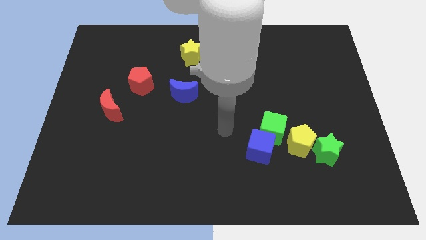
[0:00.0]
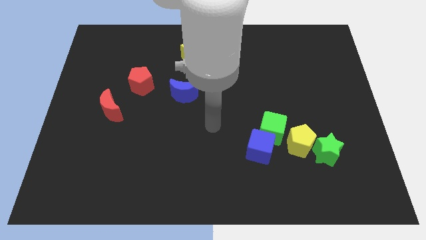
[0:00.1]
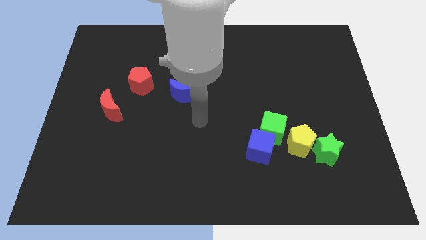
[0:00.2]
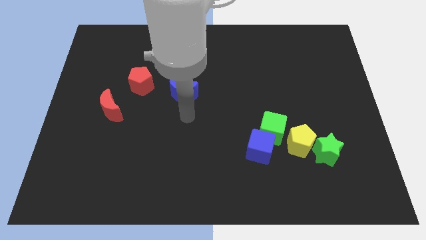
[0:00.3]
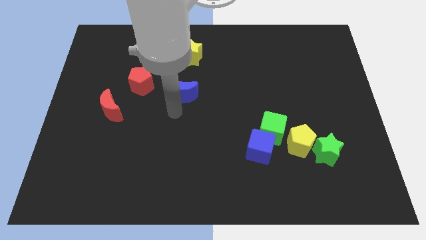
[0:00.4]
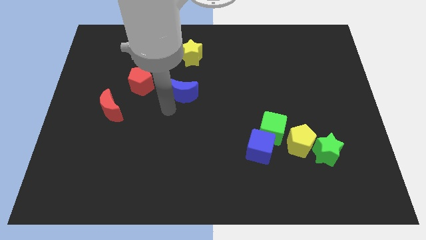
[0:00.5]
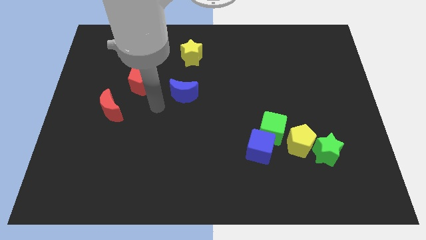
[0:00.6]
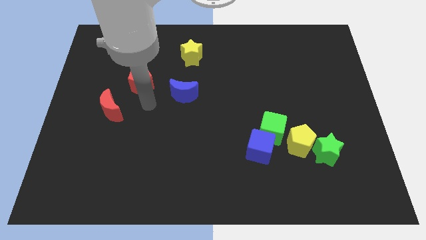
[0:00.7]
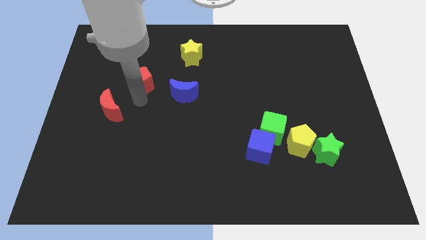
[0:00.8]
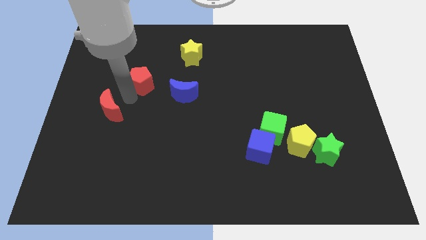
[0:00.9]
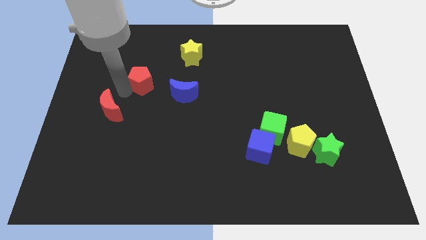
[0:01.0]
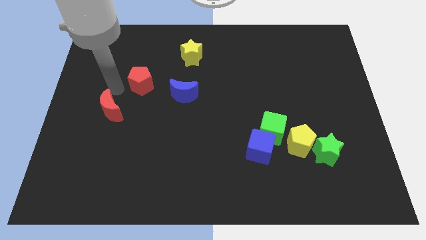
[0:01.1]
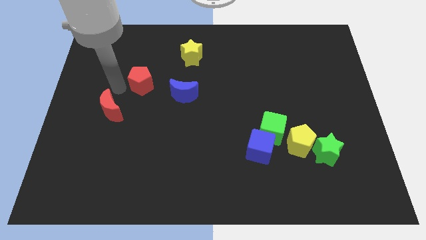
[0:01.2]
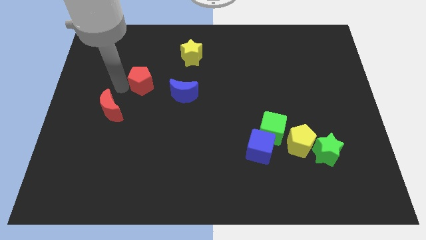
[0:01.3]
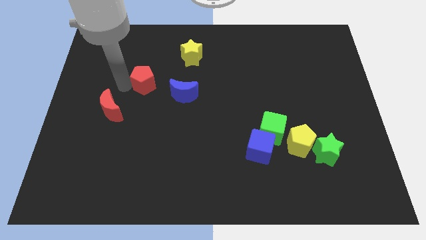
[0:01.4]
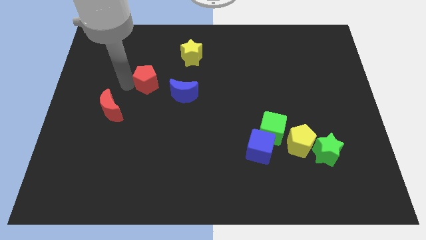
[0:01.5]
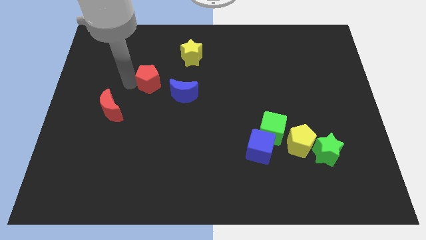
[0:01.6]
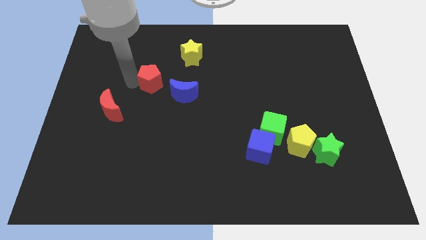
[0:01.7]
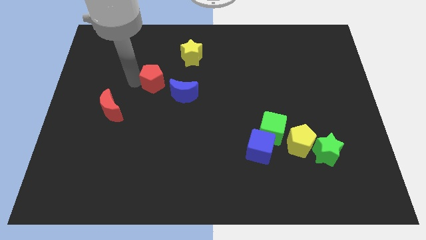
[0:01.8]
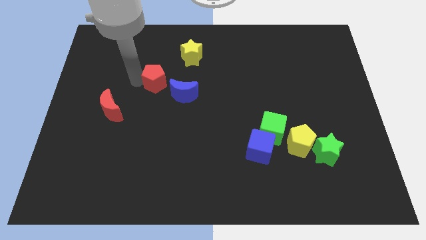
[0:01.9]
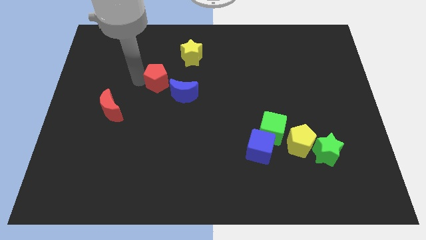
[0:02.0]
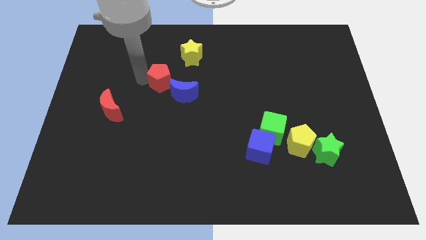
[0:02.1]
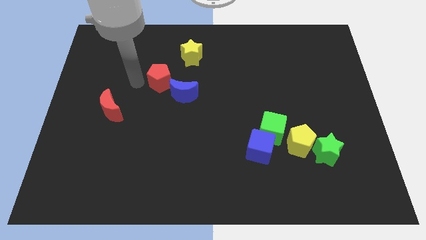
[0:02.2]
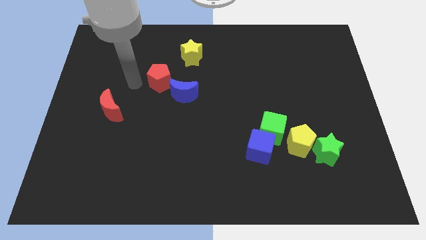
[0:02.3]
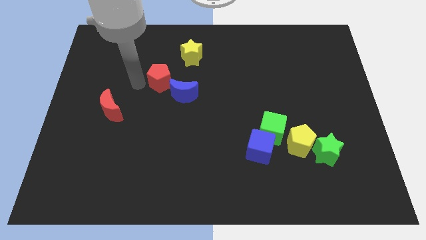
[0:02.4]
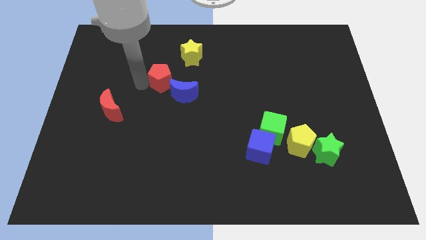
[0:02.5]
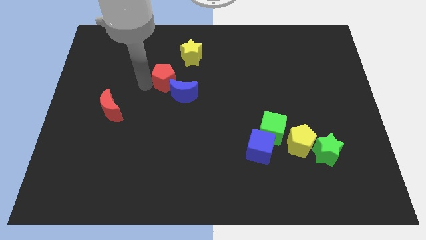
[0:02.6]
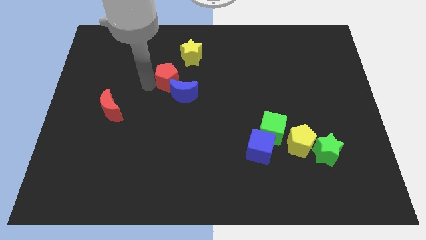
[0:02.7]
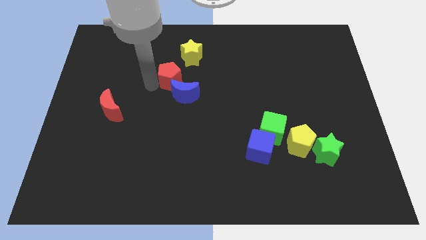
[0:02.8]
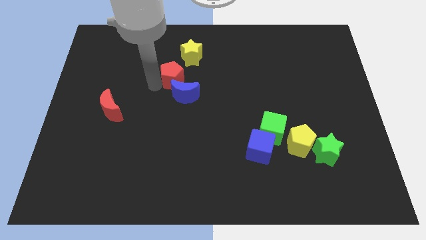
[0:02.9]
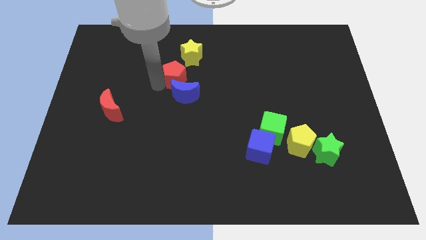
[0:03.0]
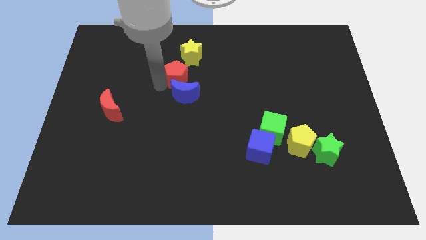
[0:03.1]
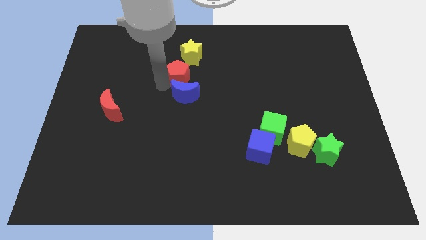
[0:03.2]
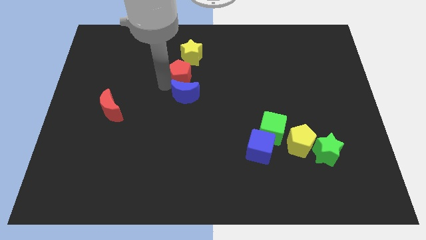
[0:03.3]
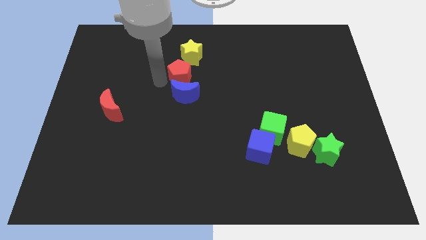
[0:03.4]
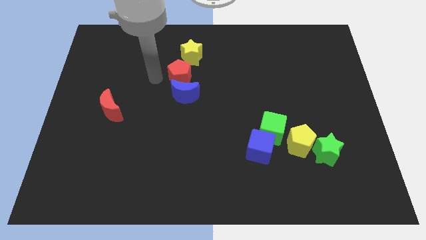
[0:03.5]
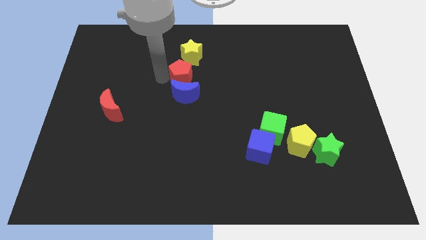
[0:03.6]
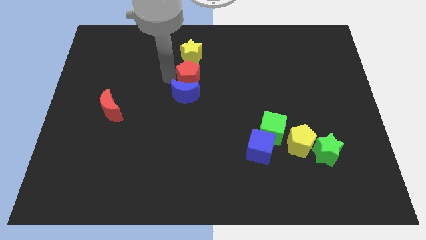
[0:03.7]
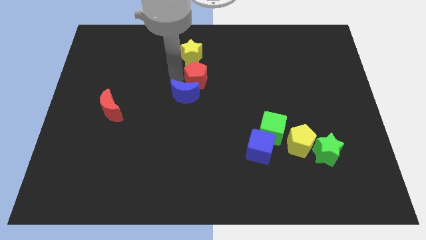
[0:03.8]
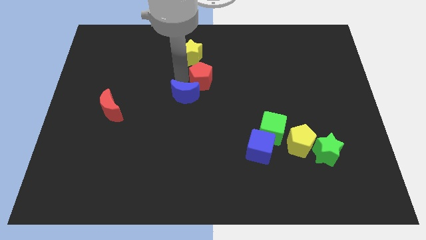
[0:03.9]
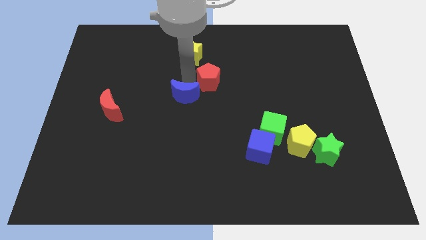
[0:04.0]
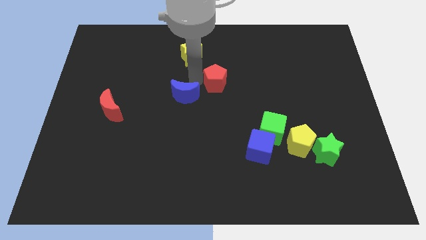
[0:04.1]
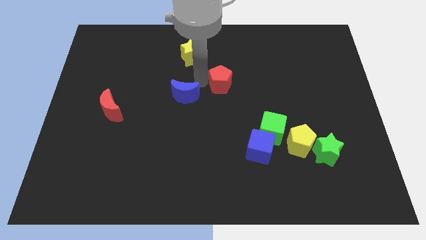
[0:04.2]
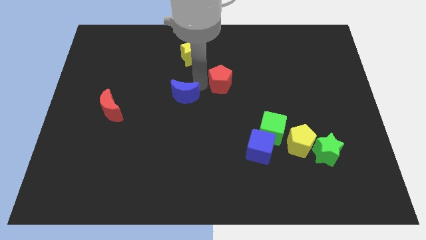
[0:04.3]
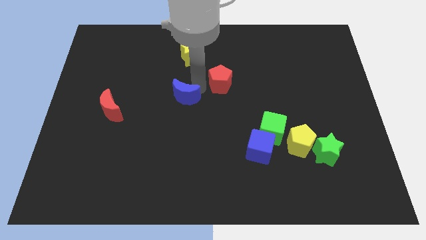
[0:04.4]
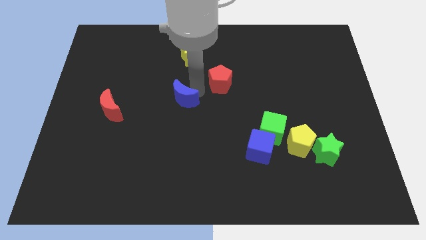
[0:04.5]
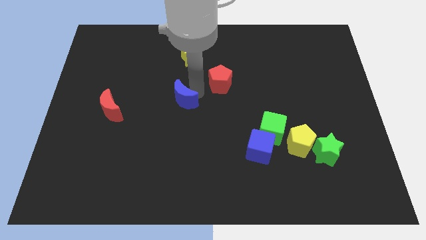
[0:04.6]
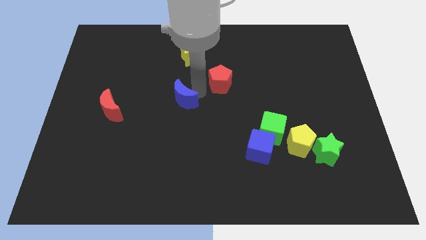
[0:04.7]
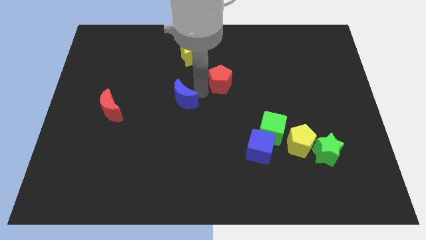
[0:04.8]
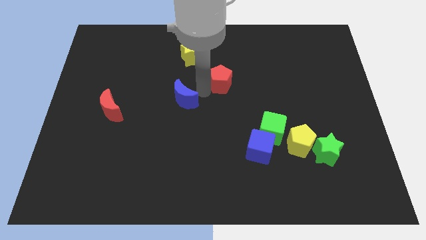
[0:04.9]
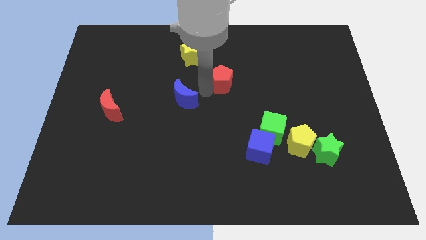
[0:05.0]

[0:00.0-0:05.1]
move the red pentagon right

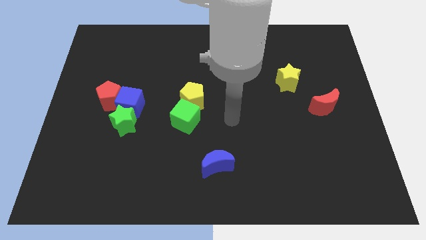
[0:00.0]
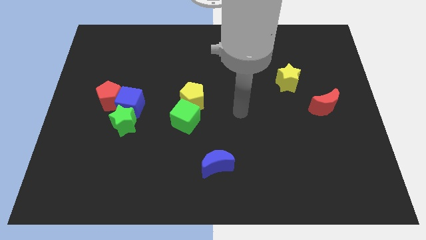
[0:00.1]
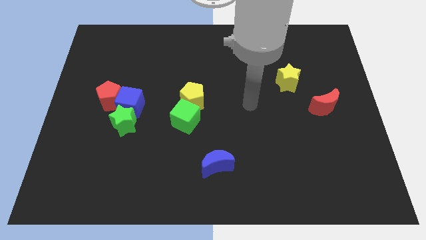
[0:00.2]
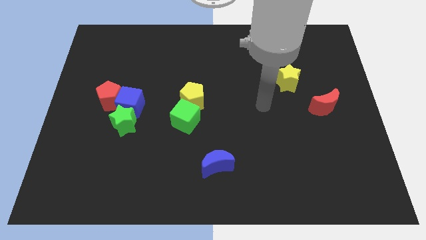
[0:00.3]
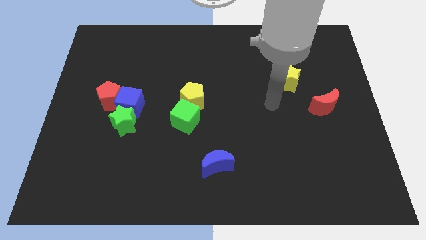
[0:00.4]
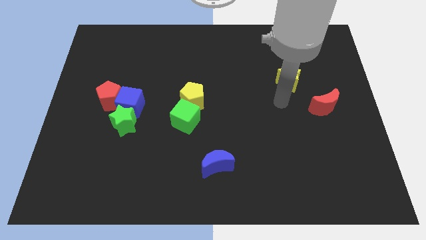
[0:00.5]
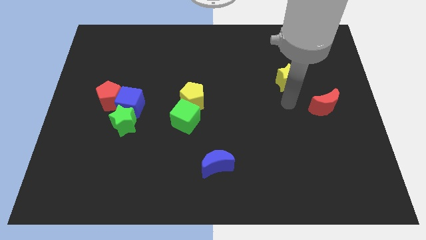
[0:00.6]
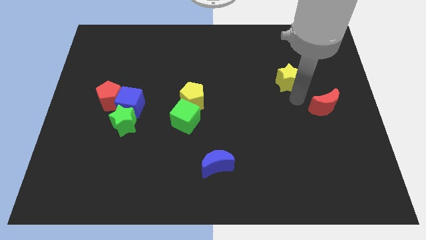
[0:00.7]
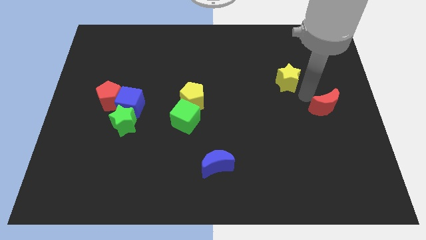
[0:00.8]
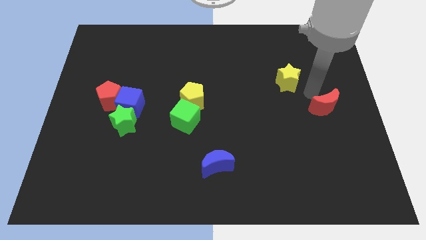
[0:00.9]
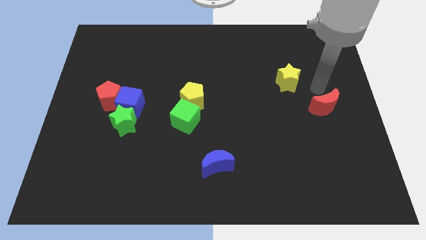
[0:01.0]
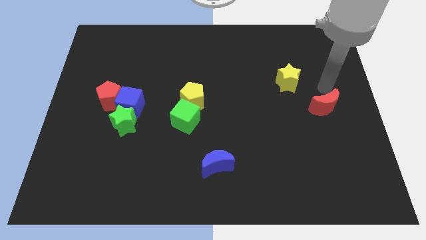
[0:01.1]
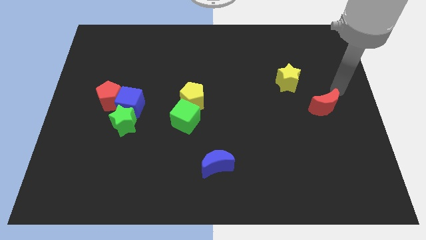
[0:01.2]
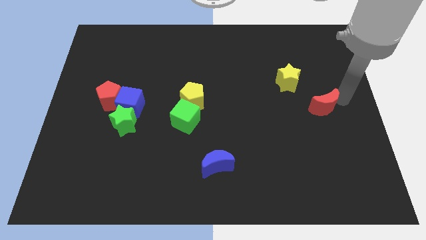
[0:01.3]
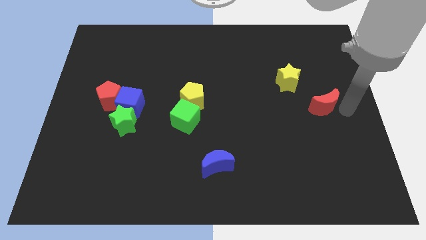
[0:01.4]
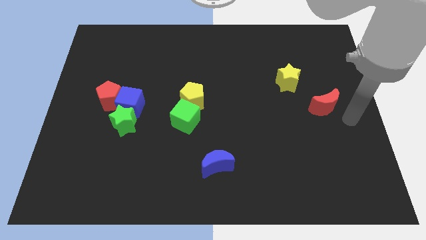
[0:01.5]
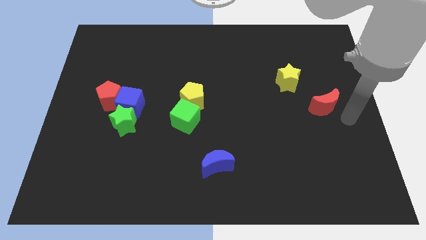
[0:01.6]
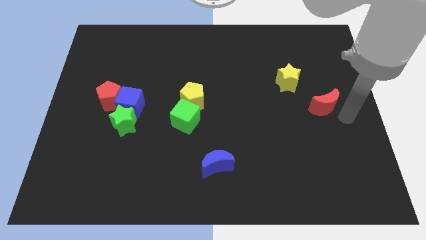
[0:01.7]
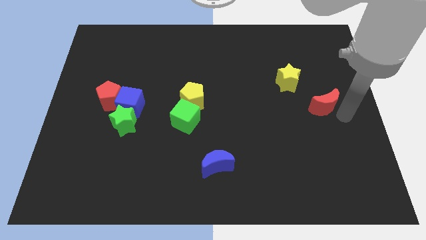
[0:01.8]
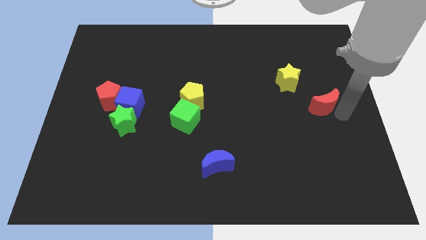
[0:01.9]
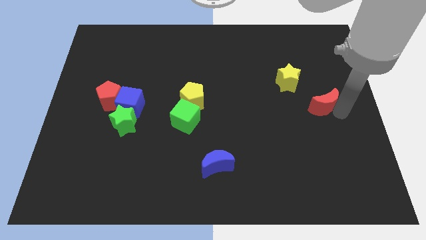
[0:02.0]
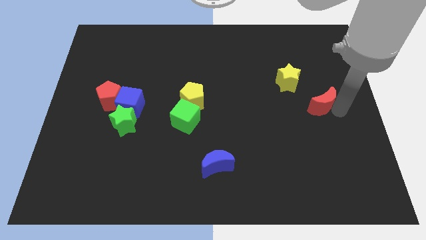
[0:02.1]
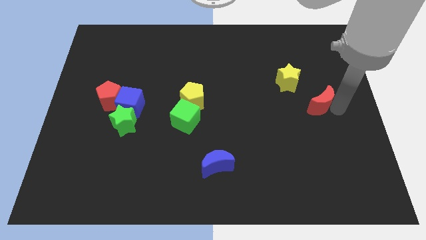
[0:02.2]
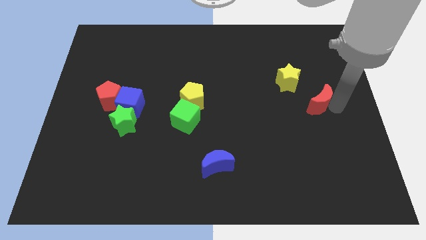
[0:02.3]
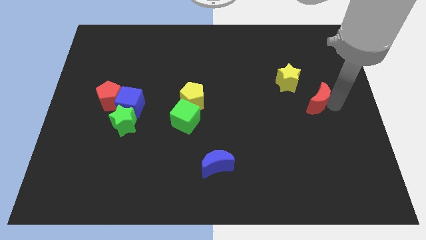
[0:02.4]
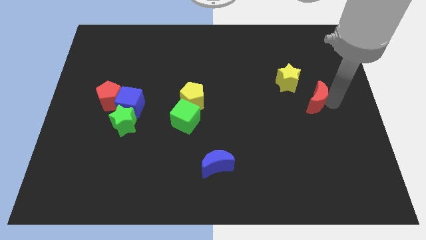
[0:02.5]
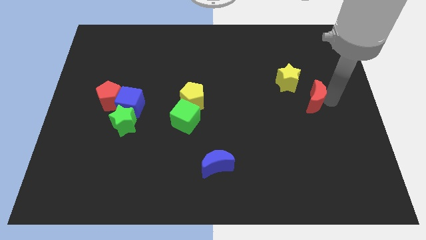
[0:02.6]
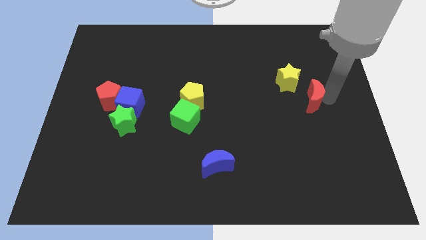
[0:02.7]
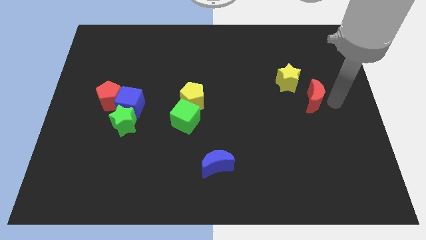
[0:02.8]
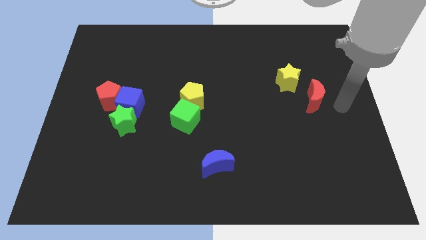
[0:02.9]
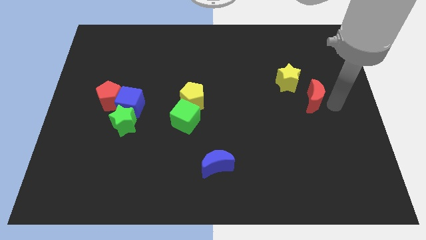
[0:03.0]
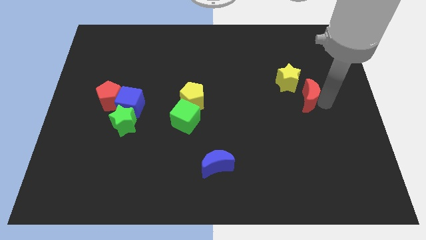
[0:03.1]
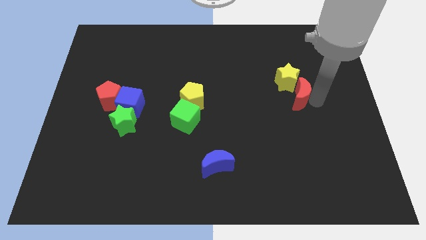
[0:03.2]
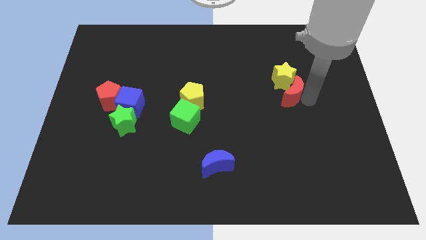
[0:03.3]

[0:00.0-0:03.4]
slightly slide the red moon up and left
